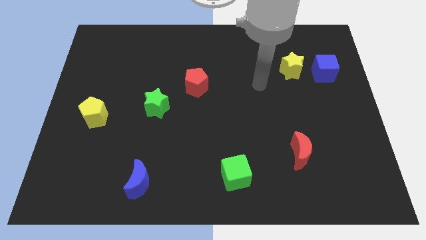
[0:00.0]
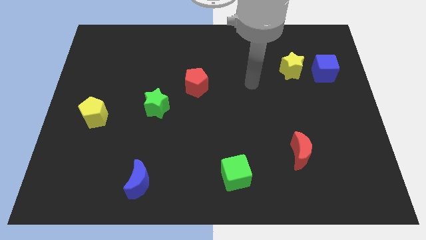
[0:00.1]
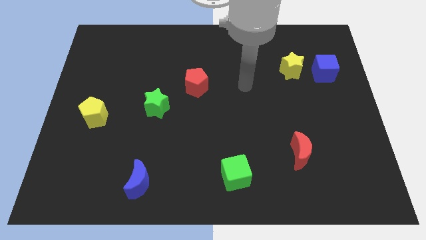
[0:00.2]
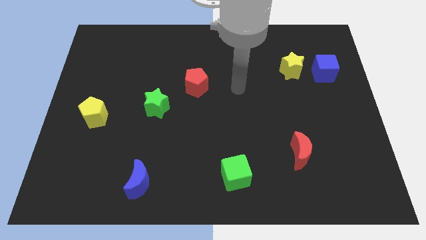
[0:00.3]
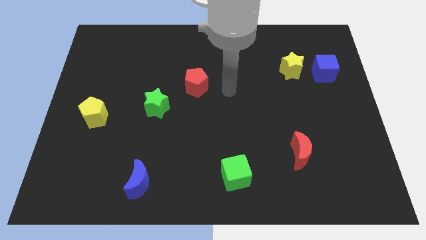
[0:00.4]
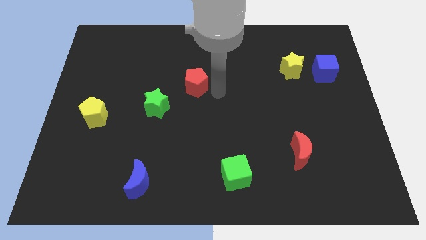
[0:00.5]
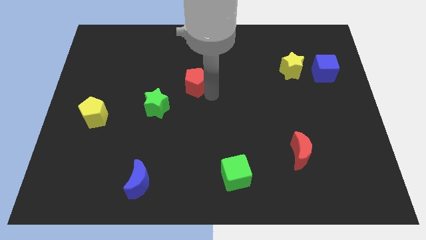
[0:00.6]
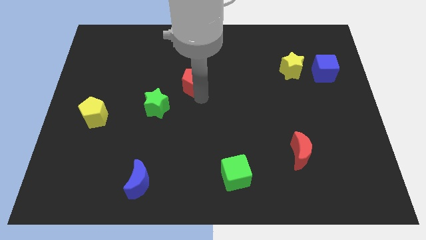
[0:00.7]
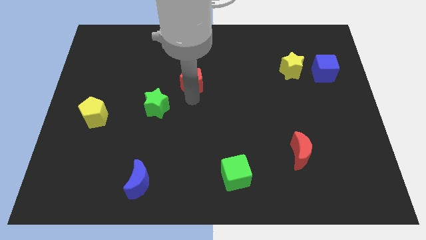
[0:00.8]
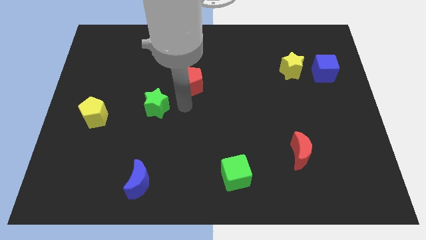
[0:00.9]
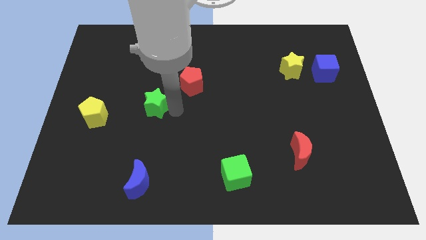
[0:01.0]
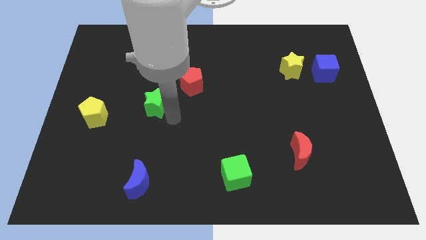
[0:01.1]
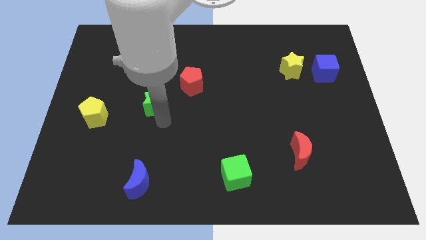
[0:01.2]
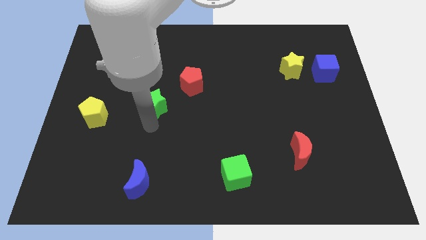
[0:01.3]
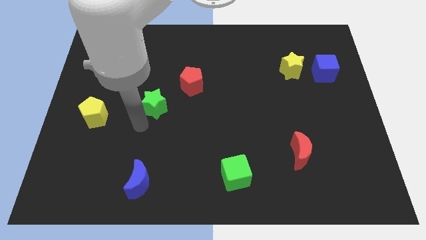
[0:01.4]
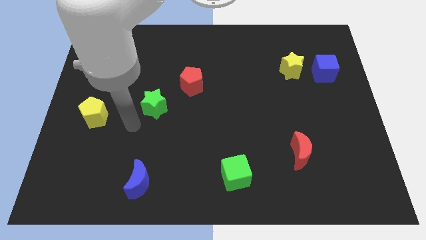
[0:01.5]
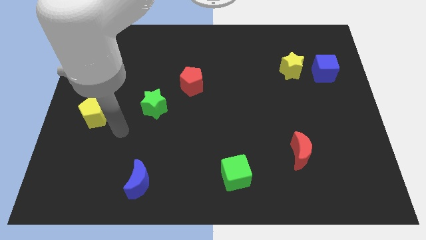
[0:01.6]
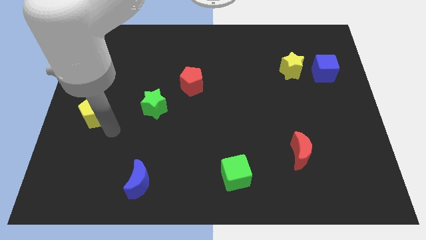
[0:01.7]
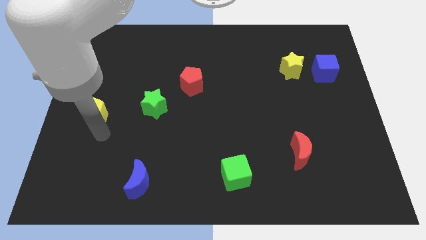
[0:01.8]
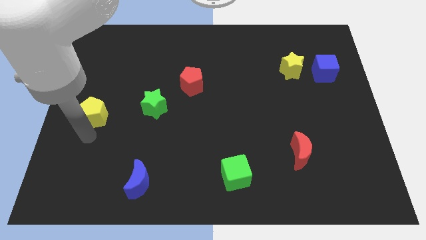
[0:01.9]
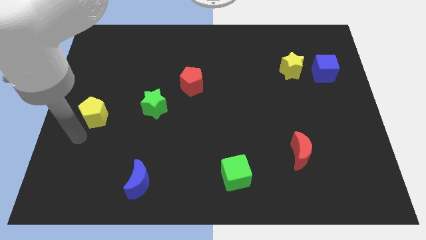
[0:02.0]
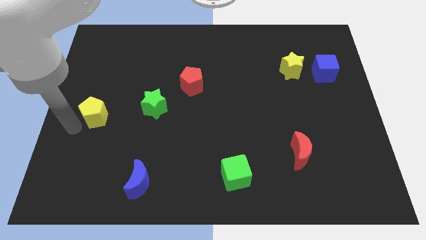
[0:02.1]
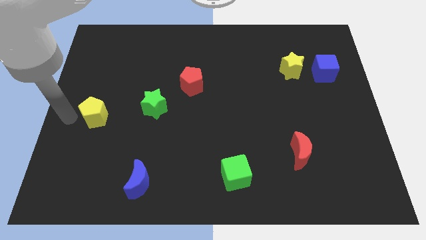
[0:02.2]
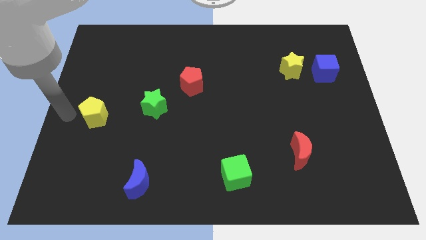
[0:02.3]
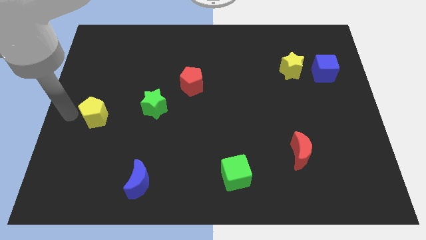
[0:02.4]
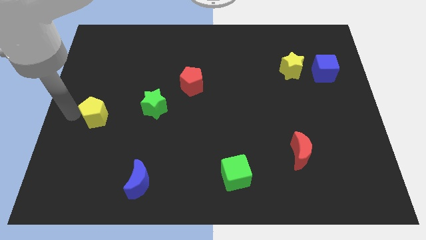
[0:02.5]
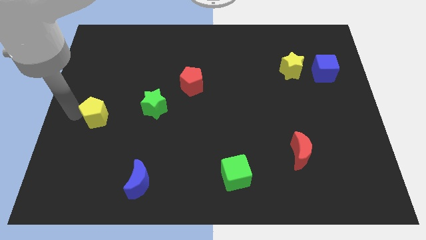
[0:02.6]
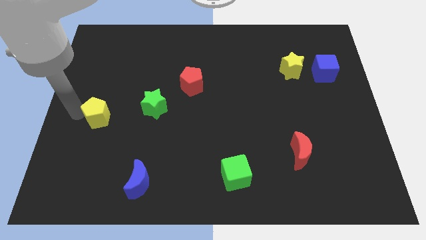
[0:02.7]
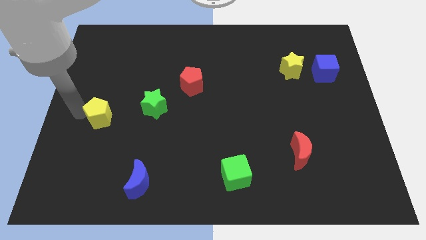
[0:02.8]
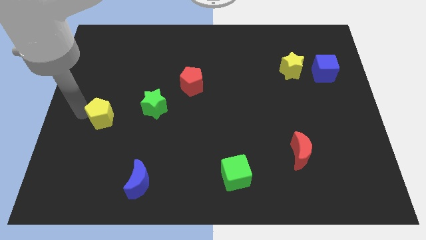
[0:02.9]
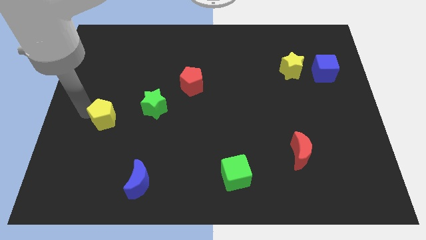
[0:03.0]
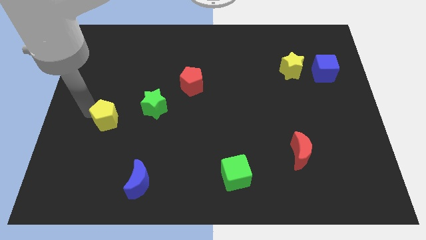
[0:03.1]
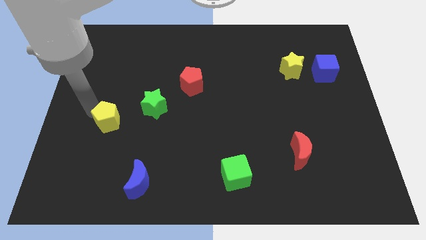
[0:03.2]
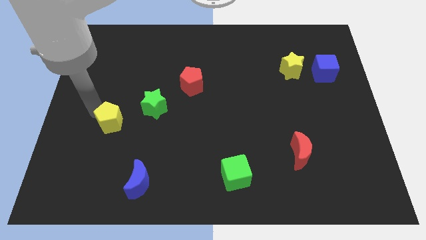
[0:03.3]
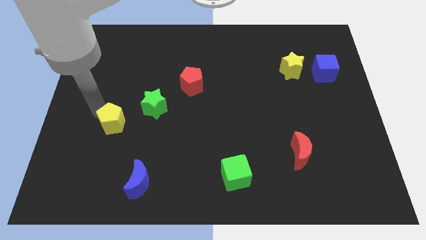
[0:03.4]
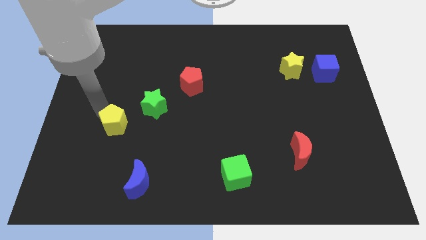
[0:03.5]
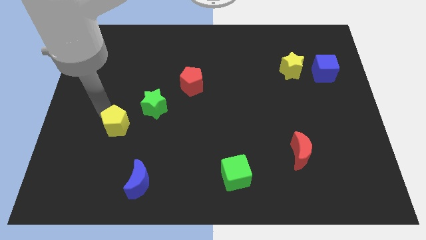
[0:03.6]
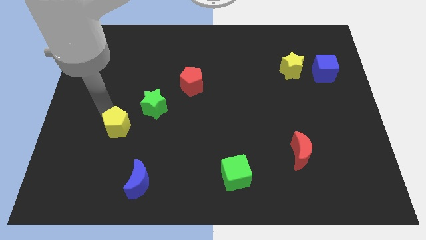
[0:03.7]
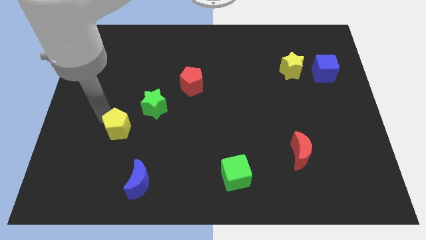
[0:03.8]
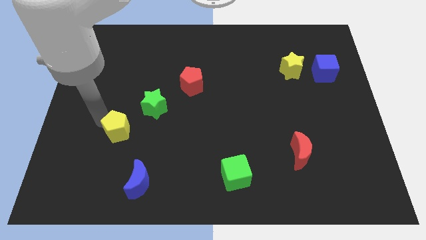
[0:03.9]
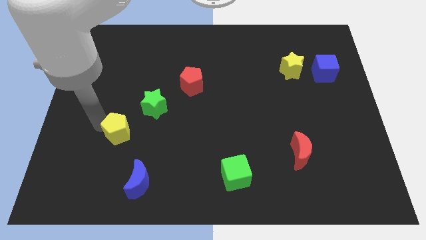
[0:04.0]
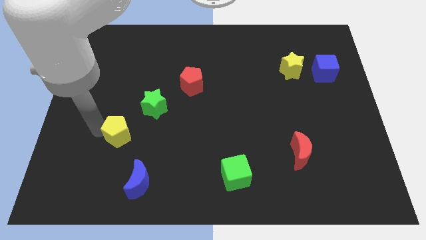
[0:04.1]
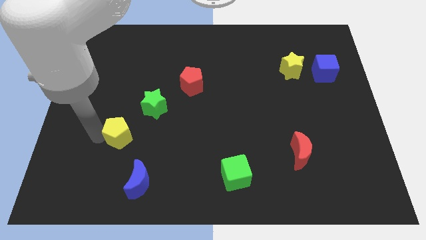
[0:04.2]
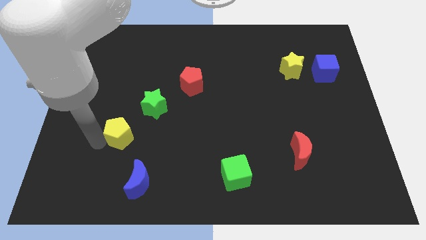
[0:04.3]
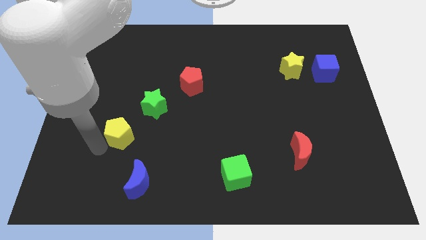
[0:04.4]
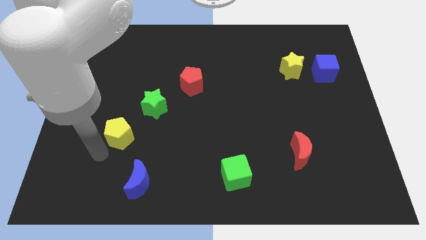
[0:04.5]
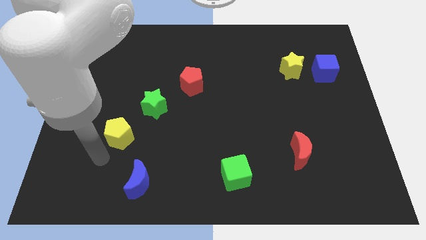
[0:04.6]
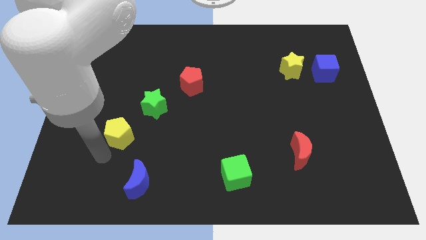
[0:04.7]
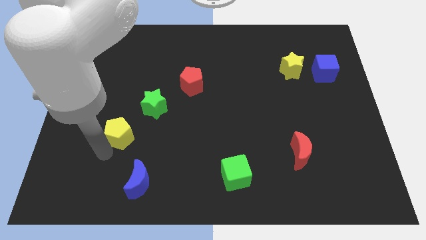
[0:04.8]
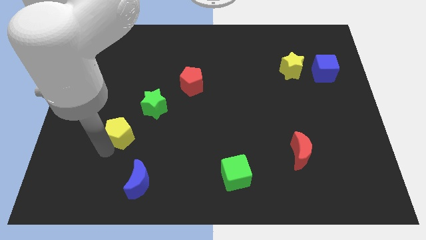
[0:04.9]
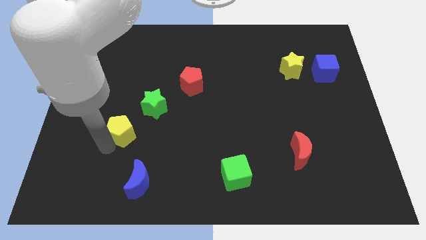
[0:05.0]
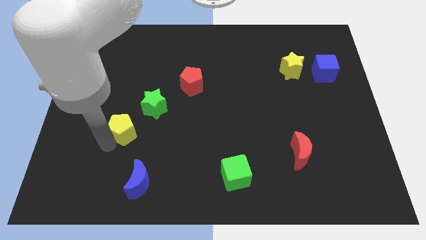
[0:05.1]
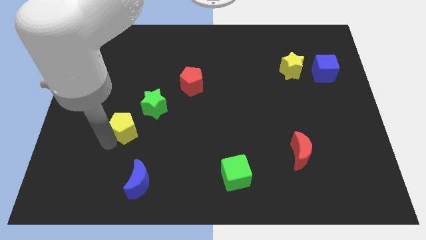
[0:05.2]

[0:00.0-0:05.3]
slightly slide the yellow pentagon to the right

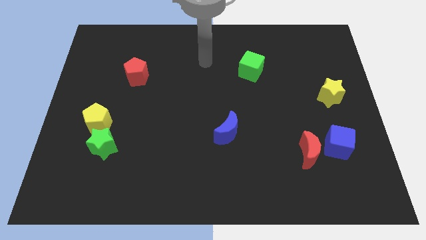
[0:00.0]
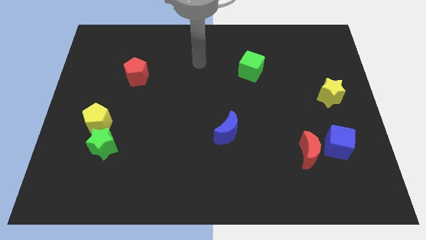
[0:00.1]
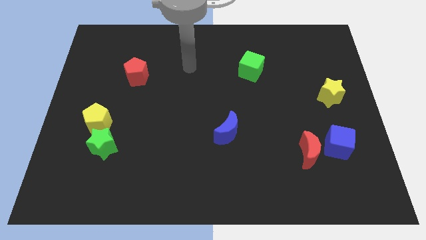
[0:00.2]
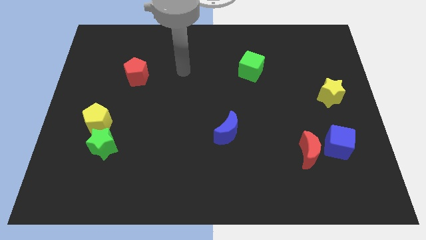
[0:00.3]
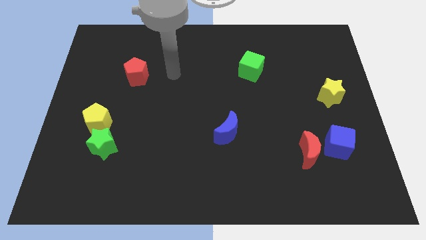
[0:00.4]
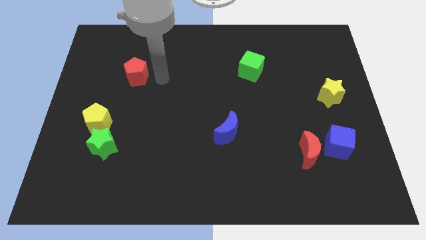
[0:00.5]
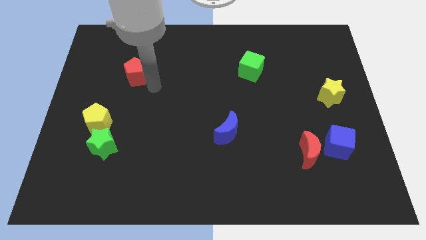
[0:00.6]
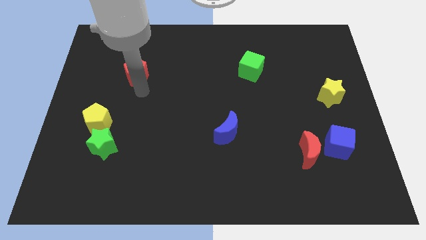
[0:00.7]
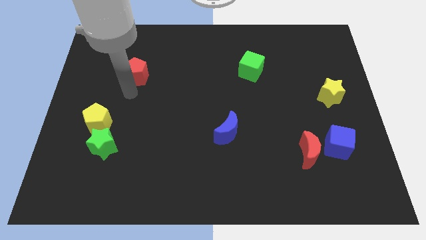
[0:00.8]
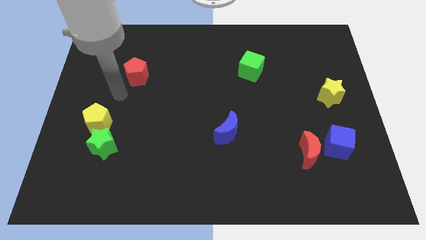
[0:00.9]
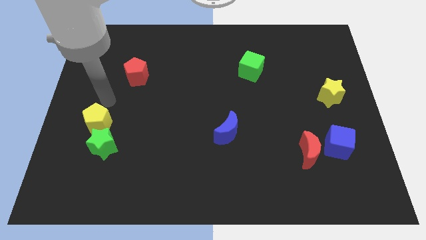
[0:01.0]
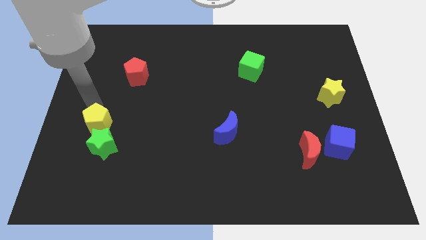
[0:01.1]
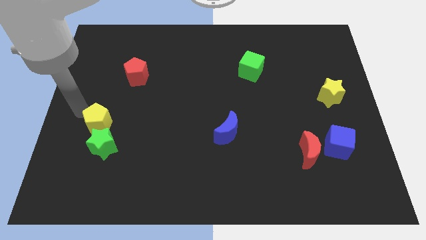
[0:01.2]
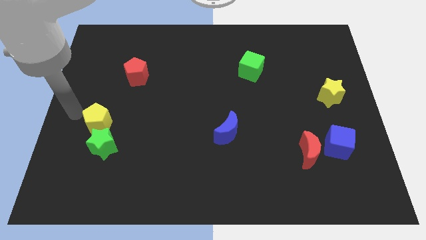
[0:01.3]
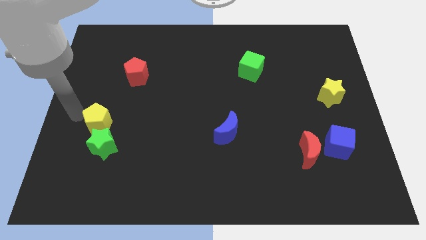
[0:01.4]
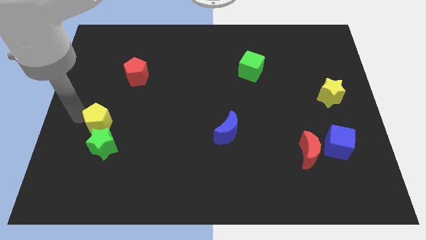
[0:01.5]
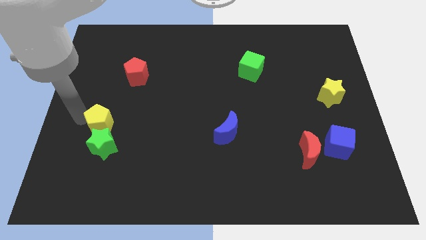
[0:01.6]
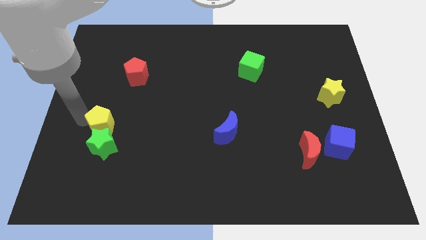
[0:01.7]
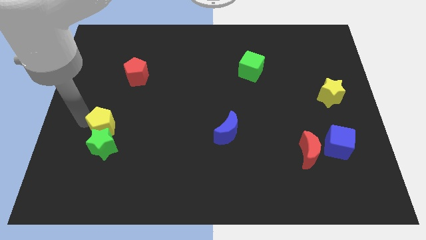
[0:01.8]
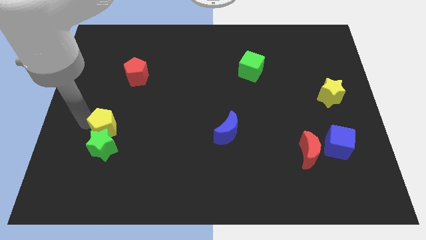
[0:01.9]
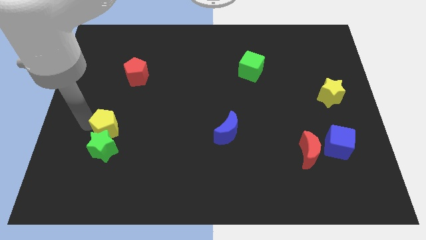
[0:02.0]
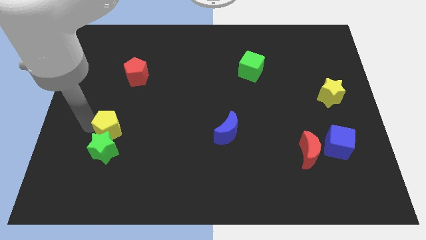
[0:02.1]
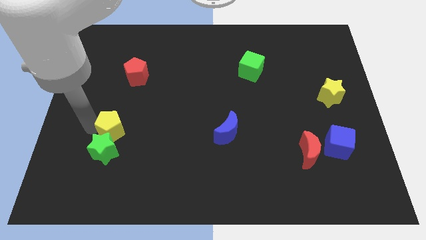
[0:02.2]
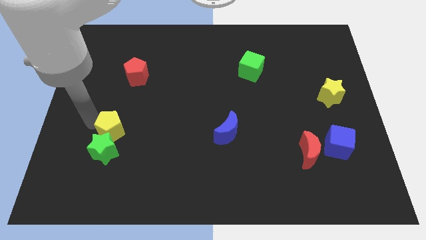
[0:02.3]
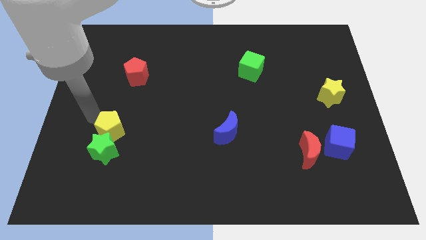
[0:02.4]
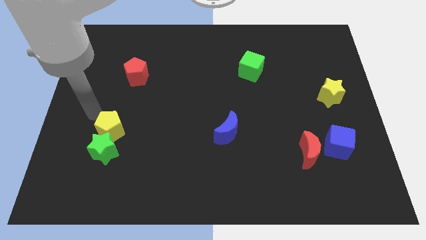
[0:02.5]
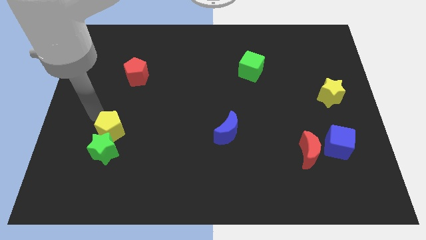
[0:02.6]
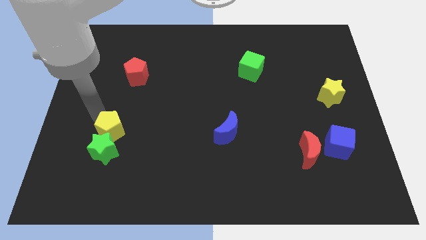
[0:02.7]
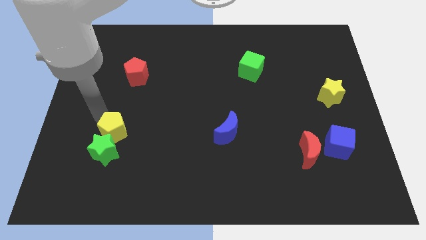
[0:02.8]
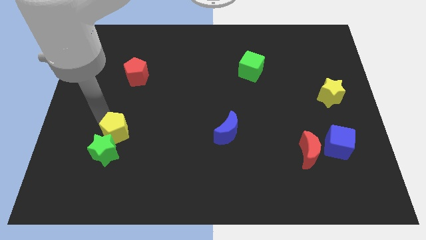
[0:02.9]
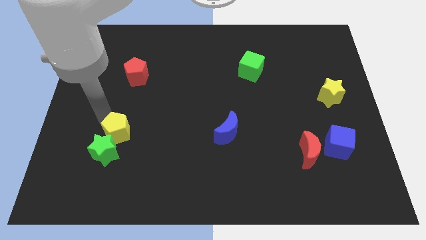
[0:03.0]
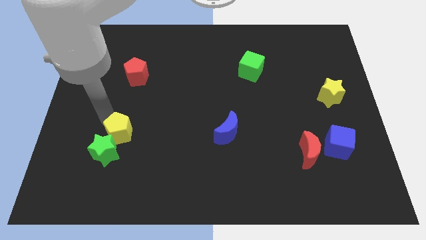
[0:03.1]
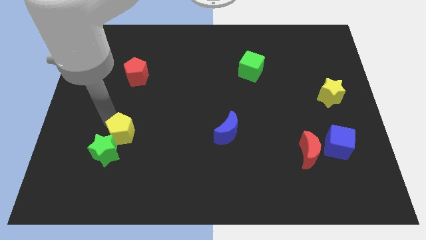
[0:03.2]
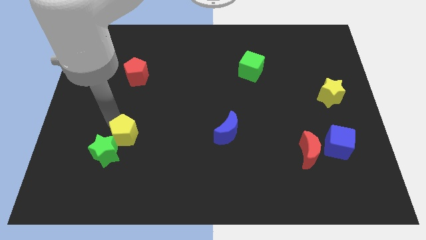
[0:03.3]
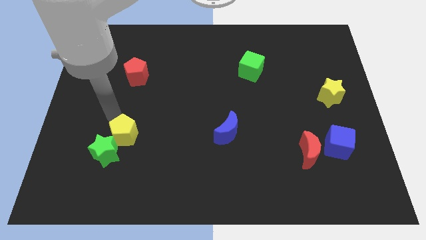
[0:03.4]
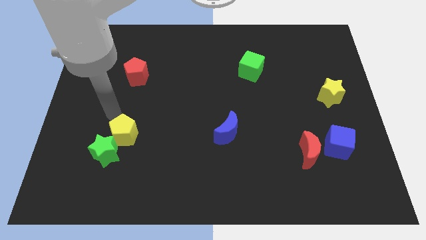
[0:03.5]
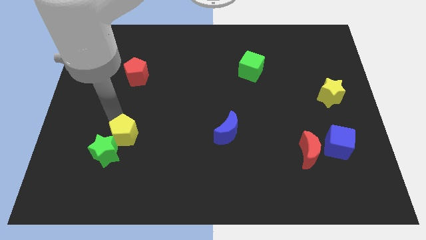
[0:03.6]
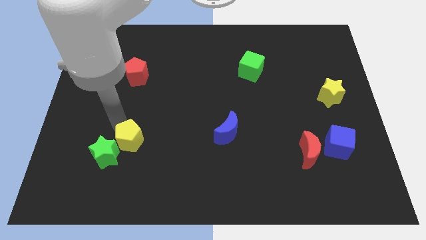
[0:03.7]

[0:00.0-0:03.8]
move the yellow pentagon a bit down and then right
